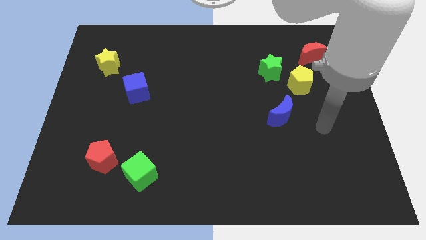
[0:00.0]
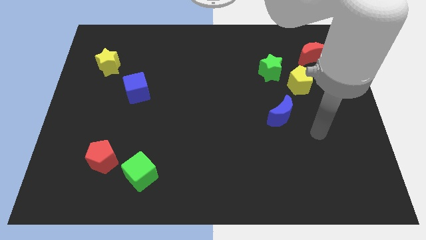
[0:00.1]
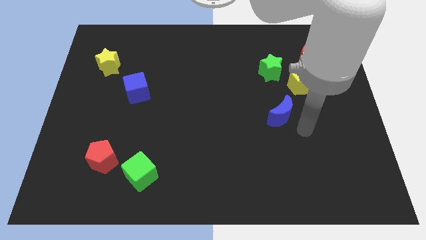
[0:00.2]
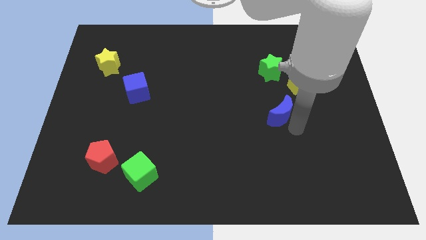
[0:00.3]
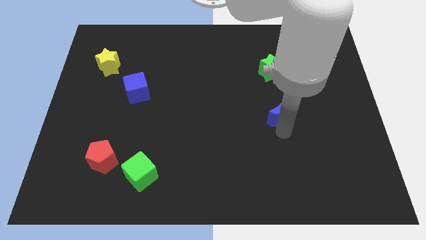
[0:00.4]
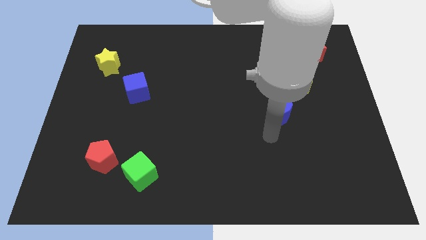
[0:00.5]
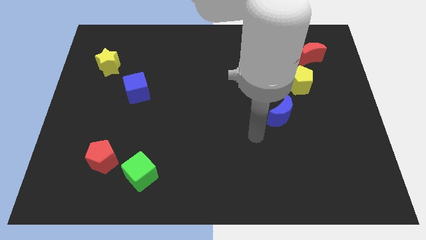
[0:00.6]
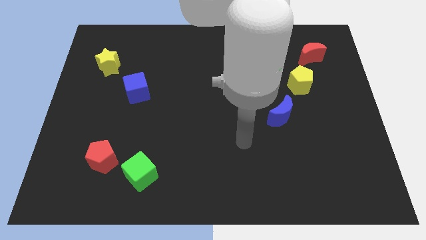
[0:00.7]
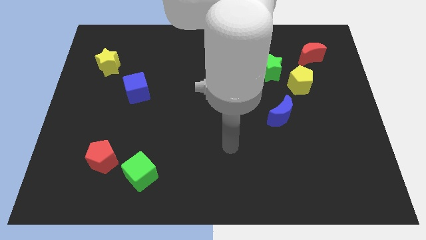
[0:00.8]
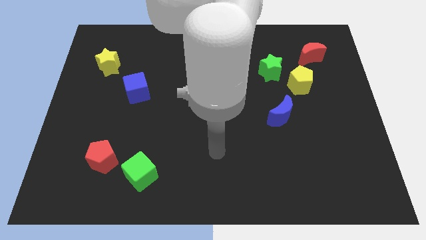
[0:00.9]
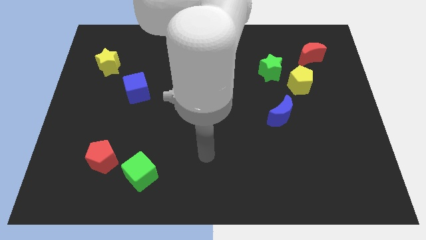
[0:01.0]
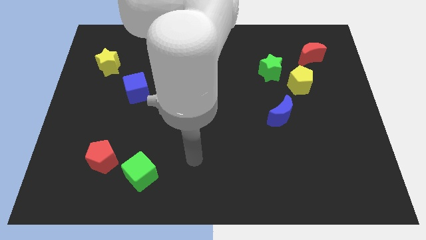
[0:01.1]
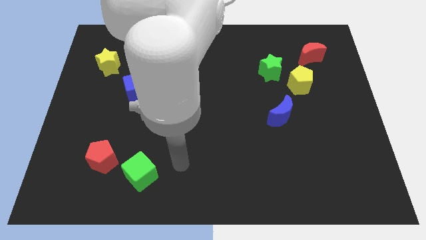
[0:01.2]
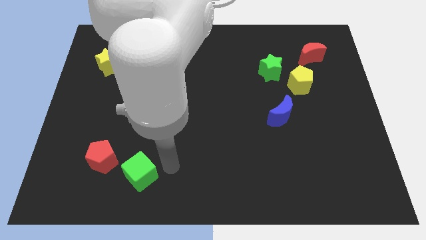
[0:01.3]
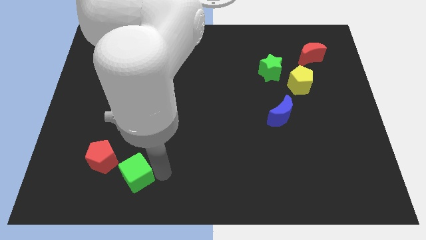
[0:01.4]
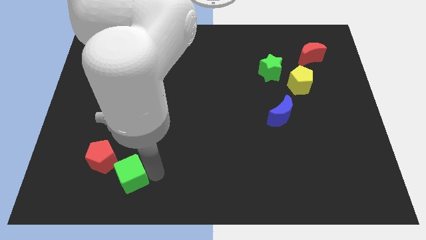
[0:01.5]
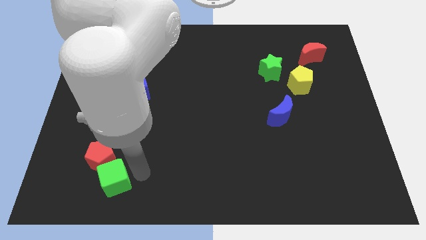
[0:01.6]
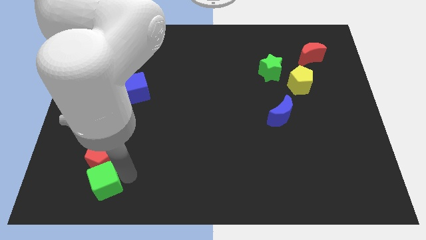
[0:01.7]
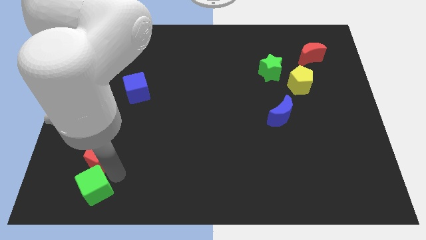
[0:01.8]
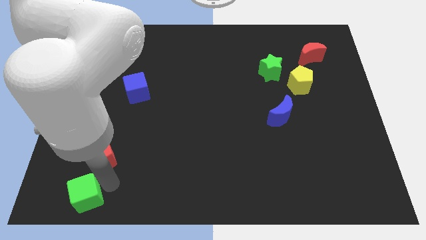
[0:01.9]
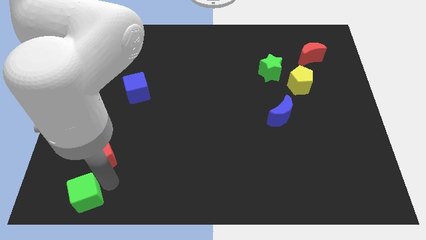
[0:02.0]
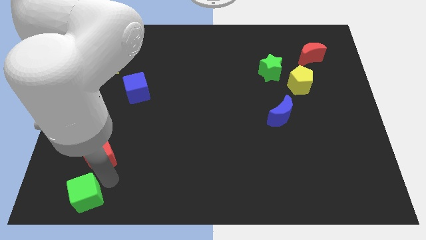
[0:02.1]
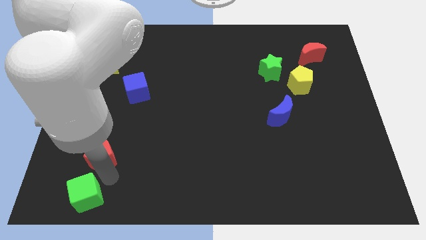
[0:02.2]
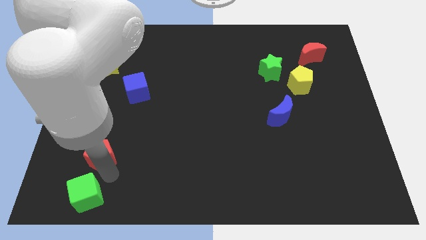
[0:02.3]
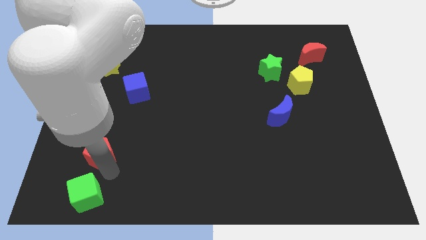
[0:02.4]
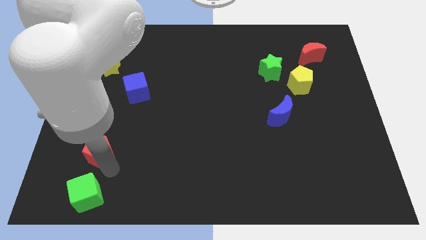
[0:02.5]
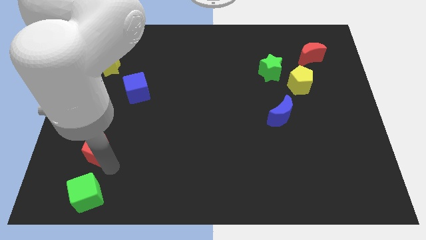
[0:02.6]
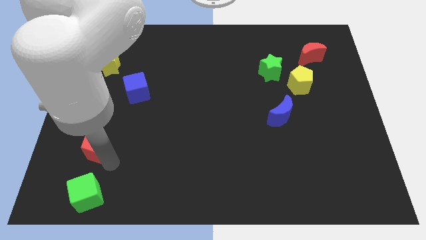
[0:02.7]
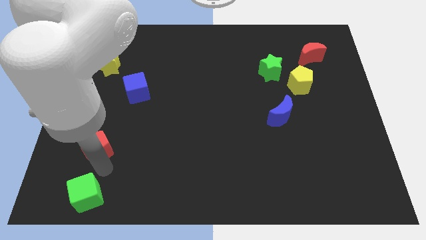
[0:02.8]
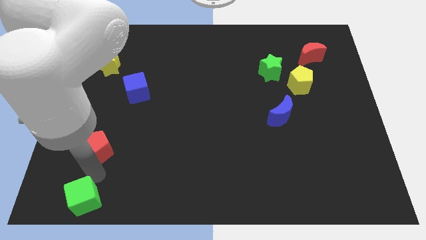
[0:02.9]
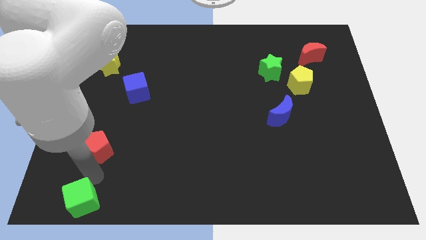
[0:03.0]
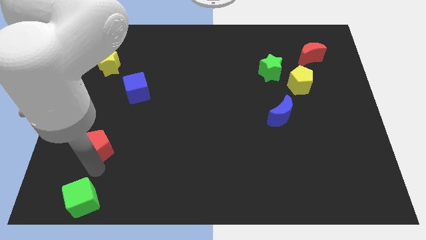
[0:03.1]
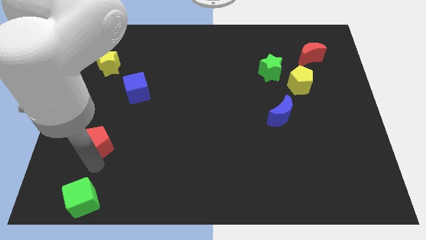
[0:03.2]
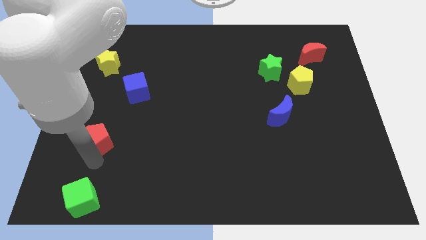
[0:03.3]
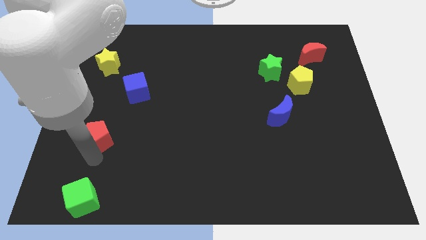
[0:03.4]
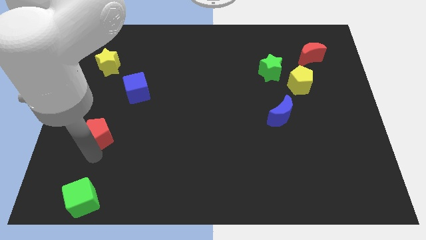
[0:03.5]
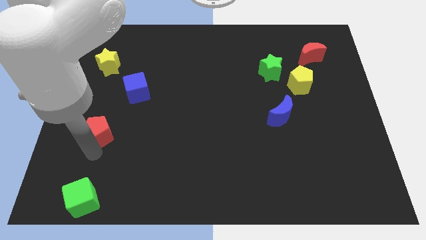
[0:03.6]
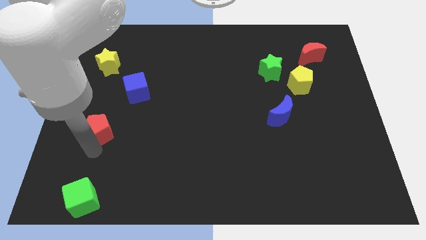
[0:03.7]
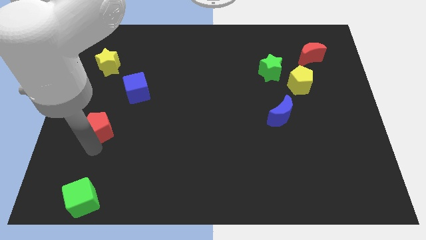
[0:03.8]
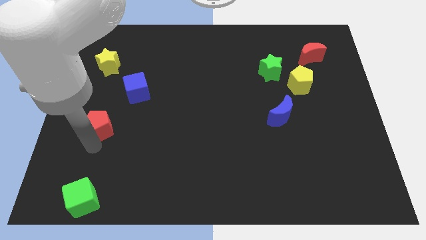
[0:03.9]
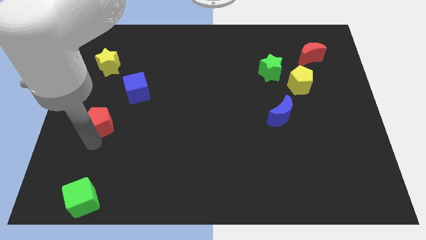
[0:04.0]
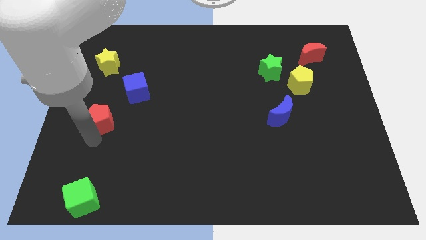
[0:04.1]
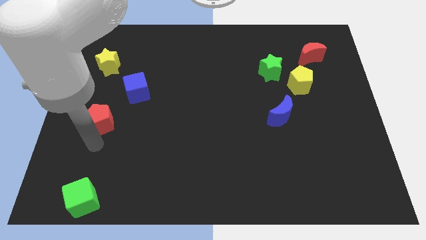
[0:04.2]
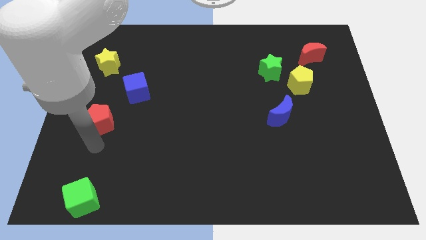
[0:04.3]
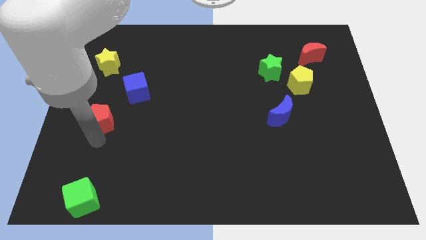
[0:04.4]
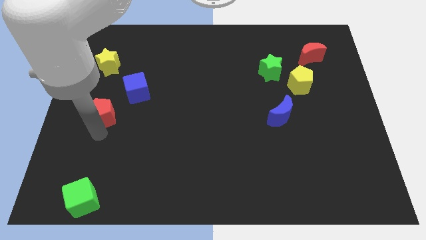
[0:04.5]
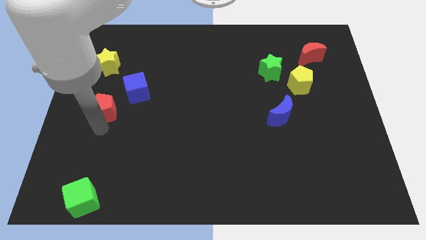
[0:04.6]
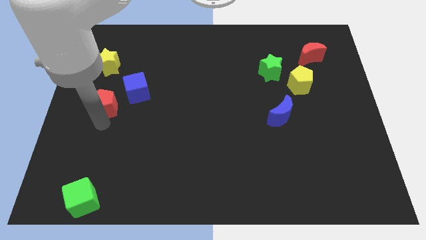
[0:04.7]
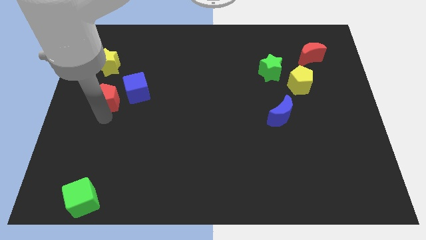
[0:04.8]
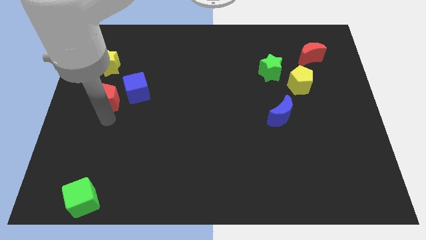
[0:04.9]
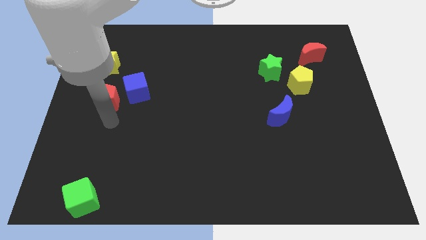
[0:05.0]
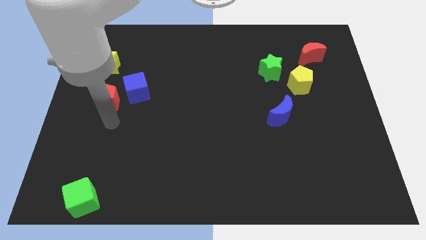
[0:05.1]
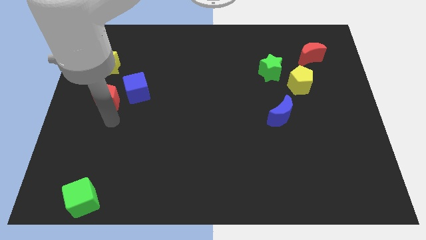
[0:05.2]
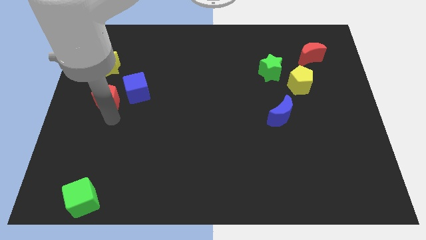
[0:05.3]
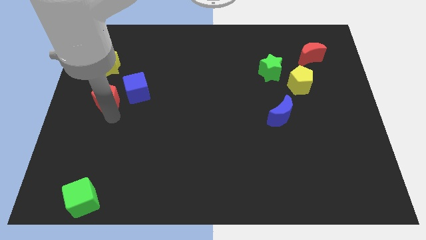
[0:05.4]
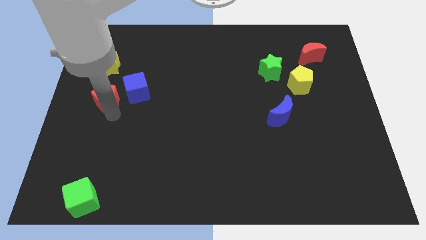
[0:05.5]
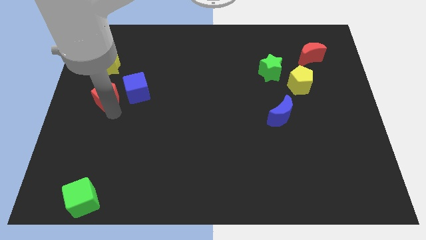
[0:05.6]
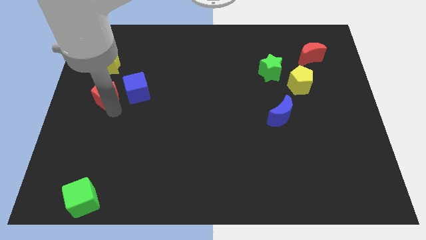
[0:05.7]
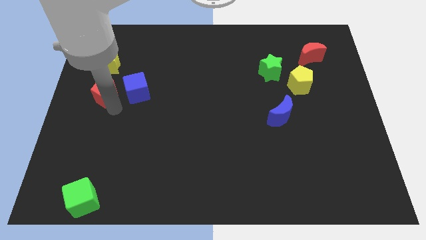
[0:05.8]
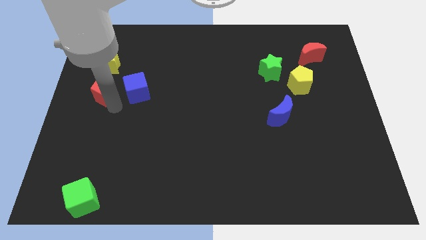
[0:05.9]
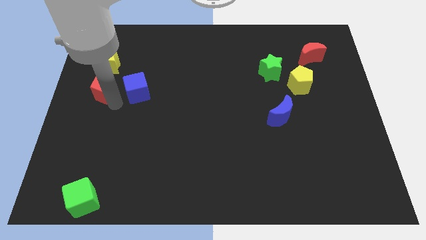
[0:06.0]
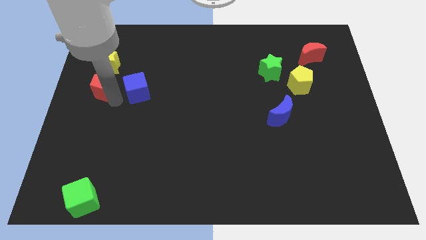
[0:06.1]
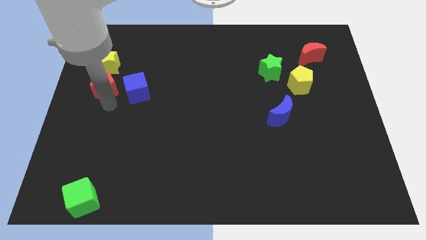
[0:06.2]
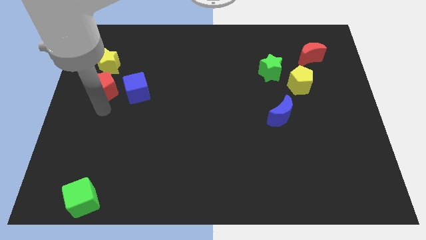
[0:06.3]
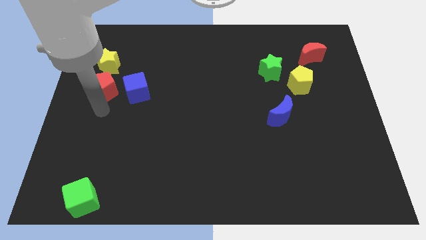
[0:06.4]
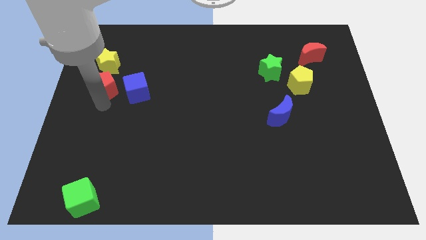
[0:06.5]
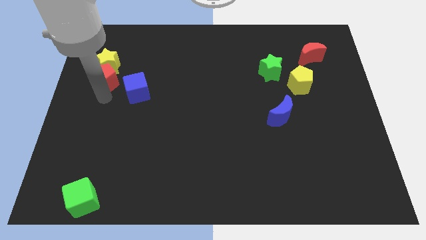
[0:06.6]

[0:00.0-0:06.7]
put the red pentagon to the yellow star

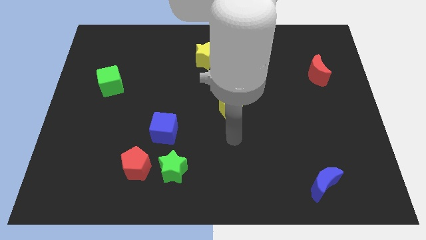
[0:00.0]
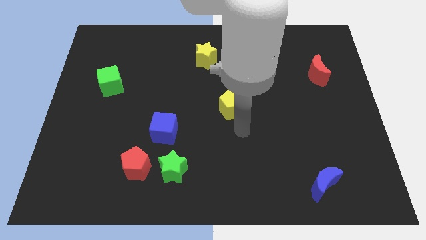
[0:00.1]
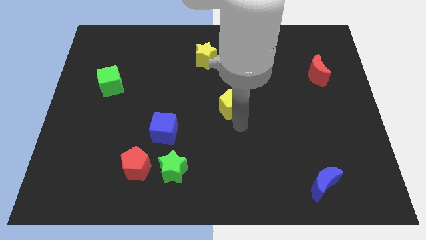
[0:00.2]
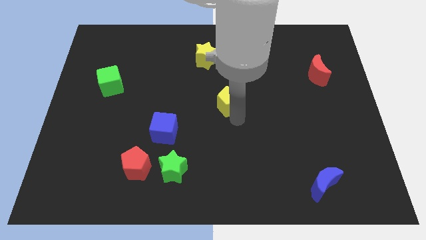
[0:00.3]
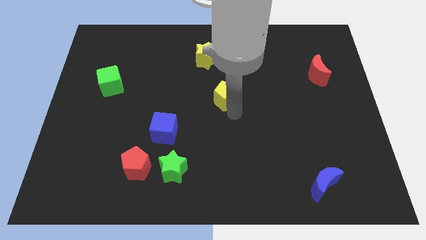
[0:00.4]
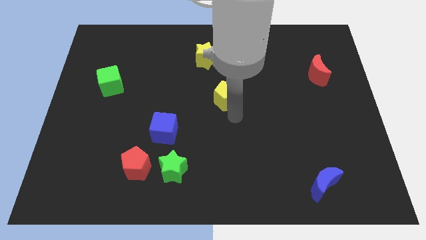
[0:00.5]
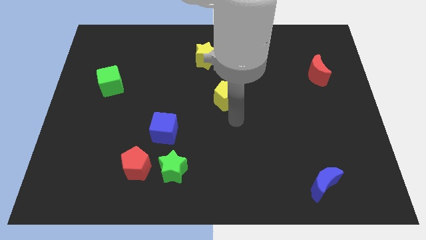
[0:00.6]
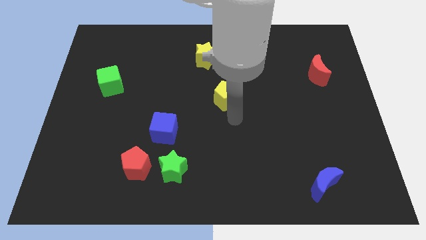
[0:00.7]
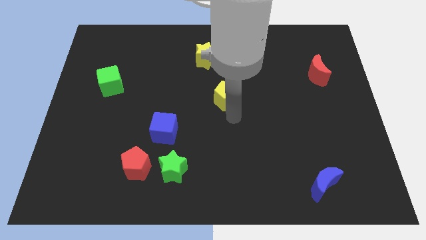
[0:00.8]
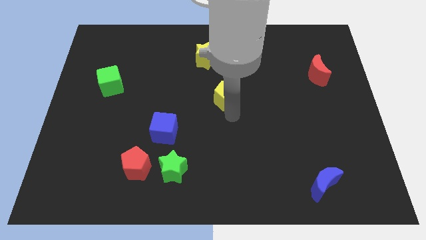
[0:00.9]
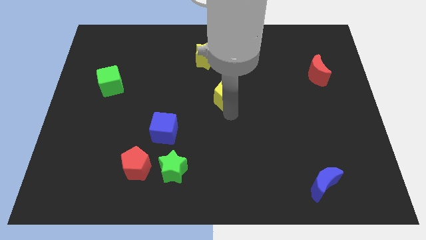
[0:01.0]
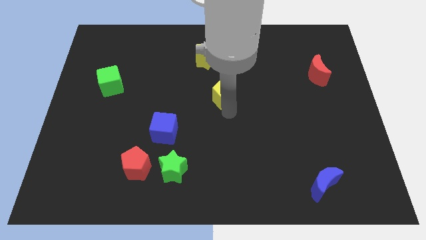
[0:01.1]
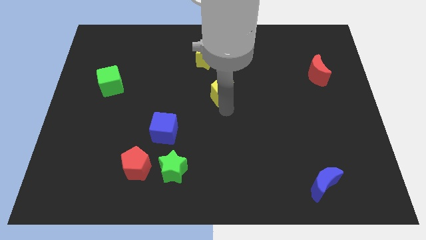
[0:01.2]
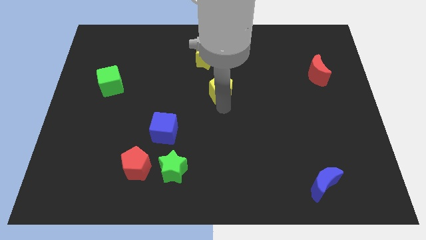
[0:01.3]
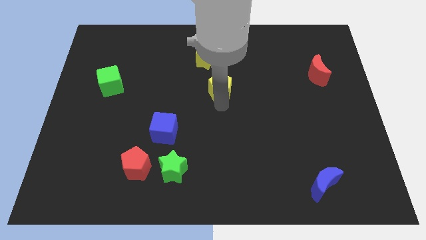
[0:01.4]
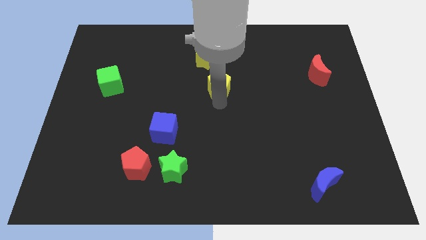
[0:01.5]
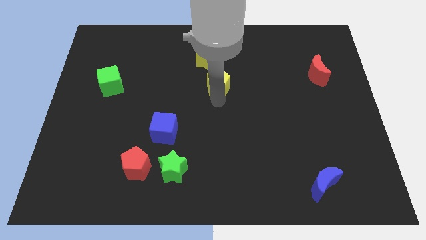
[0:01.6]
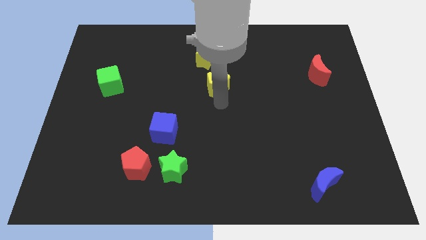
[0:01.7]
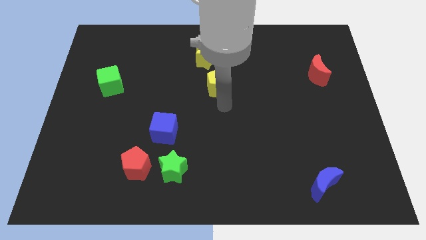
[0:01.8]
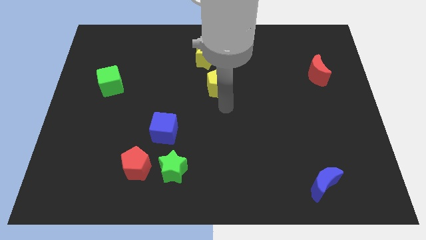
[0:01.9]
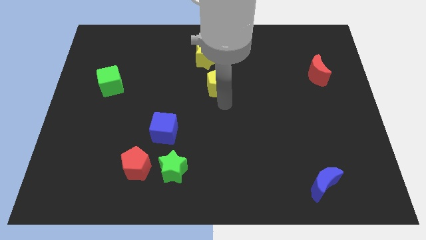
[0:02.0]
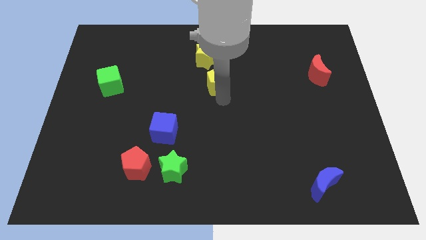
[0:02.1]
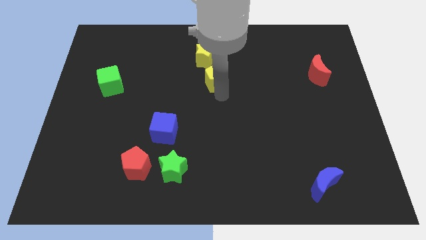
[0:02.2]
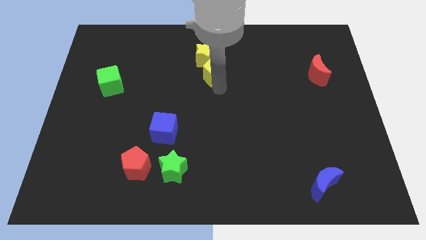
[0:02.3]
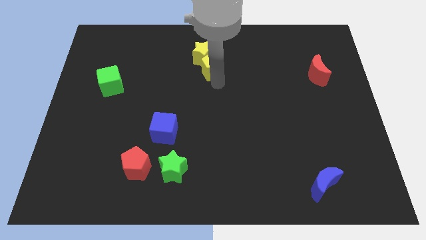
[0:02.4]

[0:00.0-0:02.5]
push the yellow pentagon close to the yellow star
